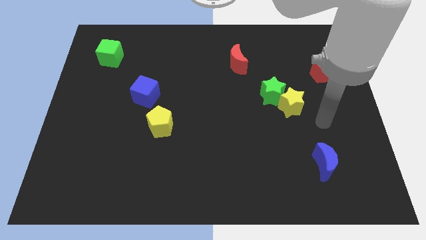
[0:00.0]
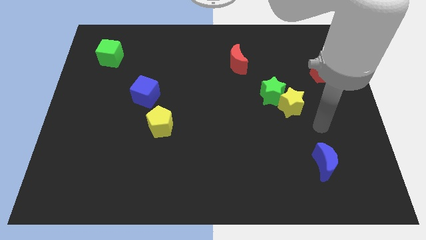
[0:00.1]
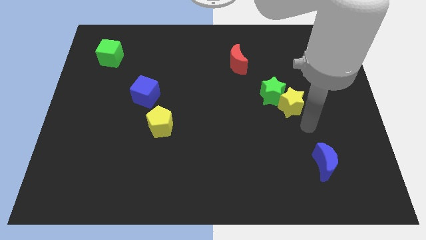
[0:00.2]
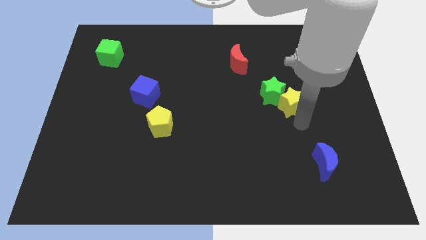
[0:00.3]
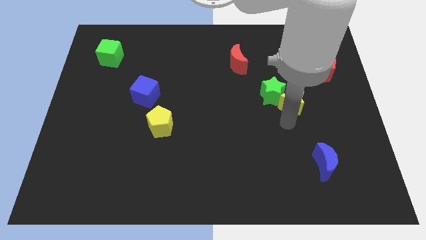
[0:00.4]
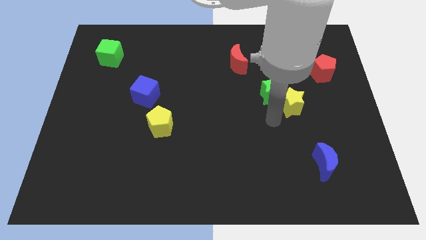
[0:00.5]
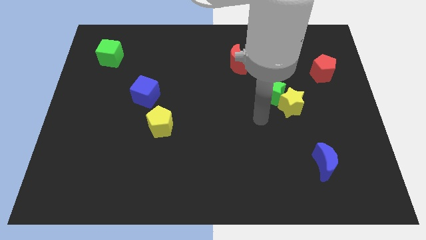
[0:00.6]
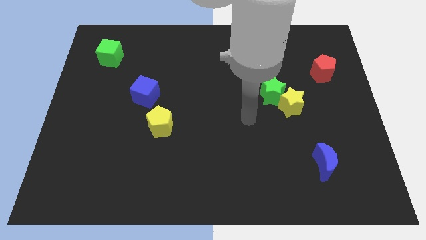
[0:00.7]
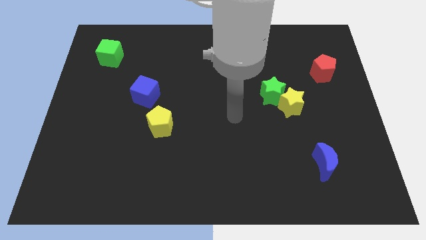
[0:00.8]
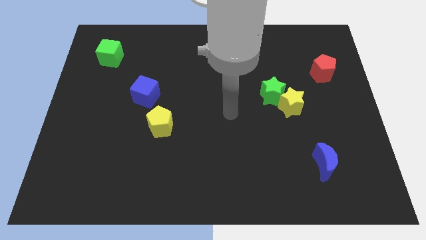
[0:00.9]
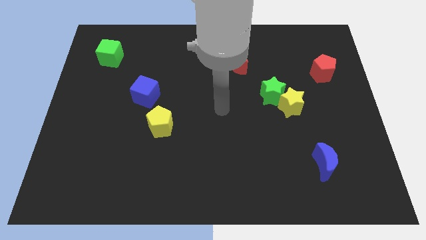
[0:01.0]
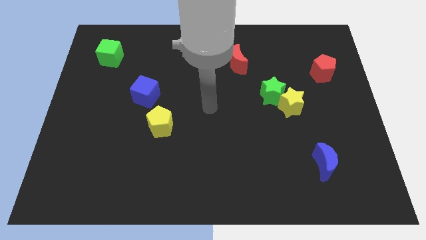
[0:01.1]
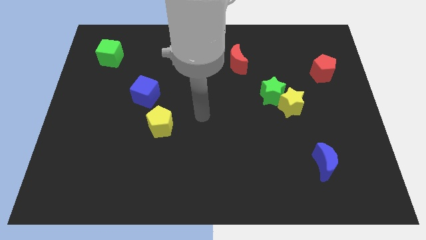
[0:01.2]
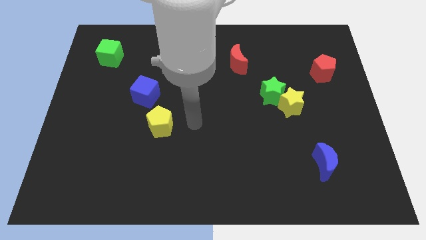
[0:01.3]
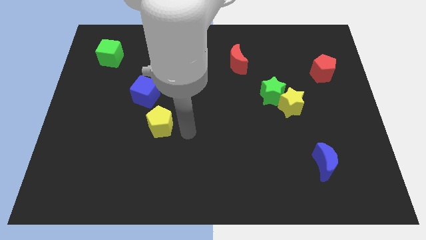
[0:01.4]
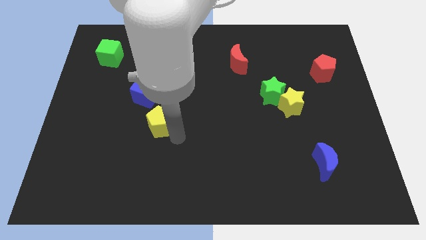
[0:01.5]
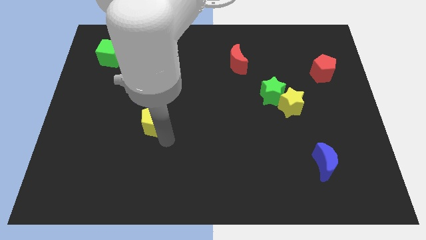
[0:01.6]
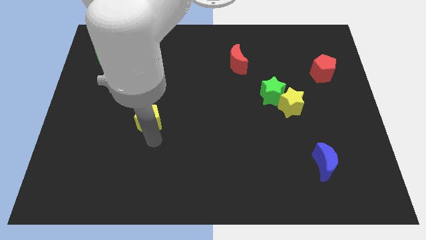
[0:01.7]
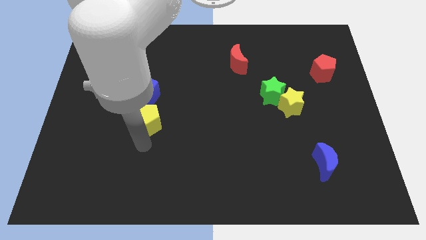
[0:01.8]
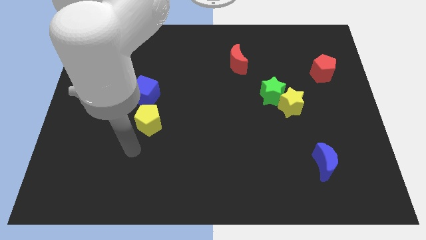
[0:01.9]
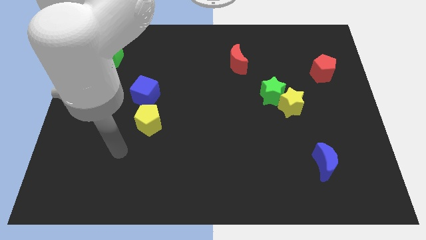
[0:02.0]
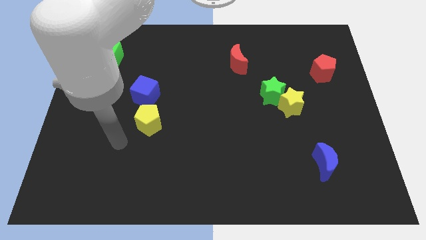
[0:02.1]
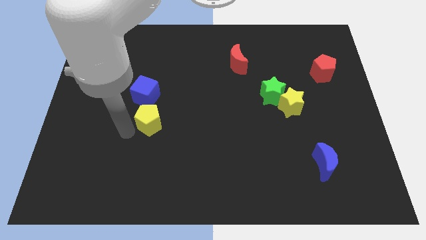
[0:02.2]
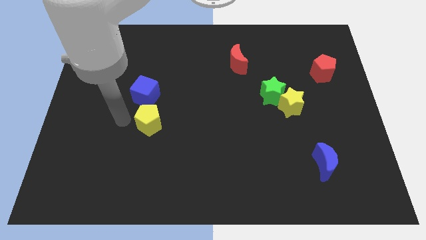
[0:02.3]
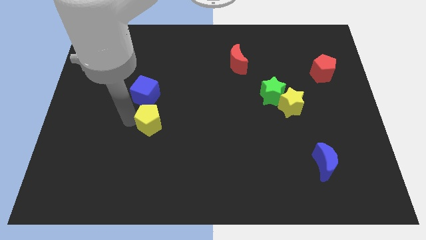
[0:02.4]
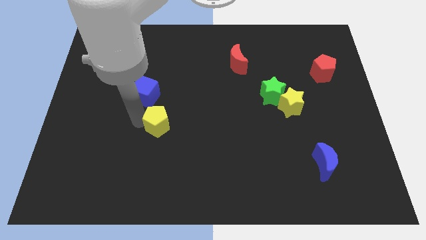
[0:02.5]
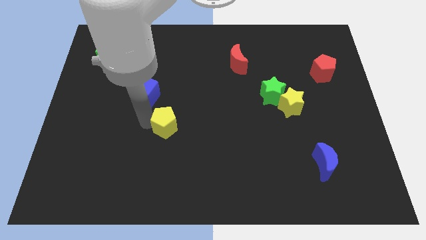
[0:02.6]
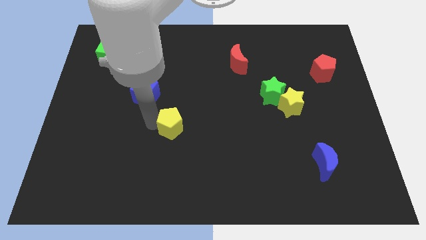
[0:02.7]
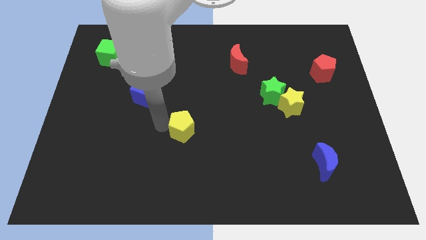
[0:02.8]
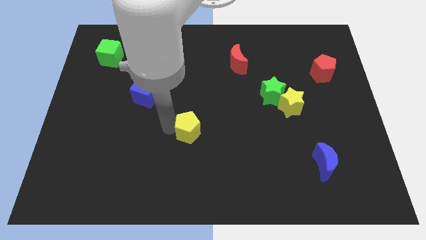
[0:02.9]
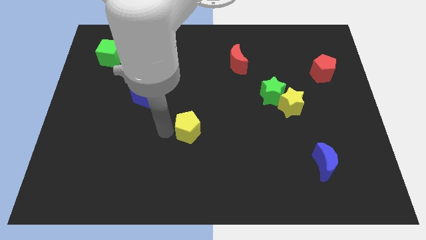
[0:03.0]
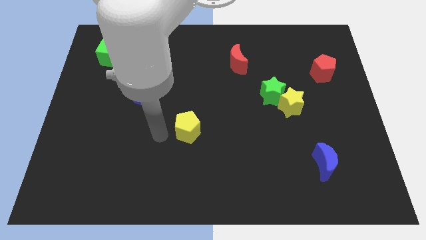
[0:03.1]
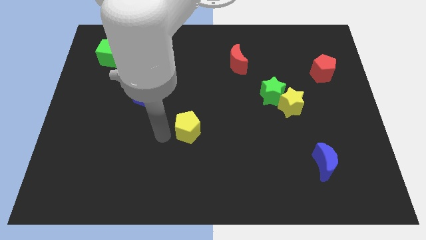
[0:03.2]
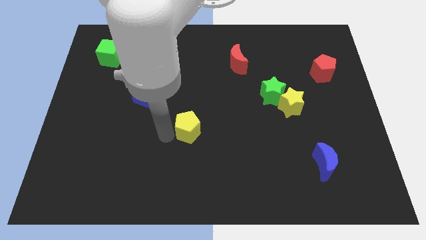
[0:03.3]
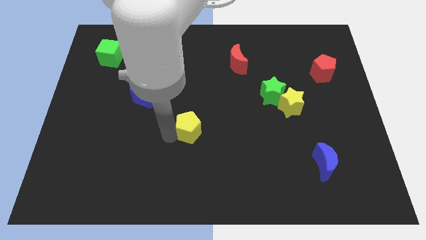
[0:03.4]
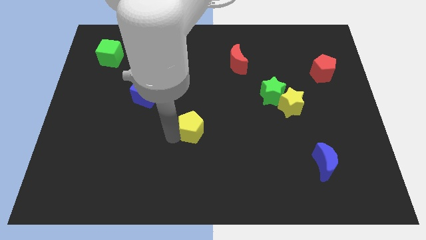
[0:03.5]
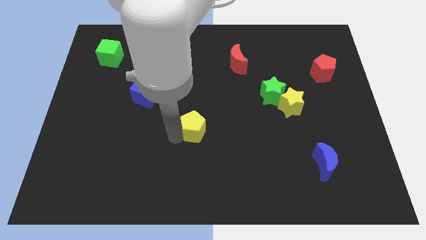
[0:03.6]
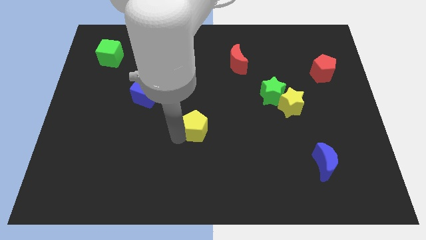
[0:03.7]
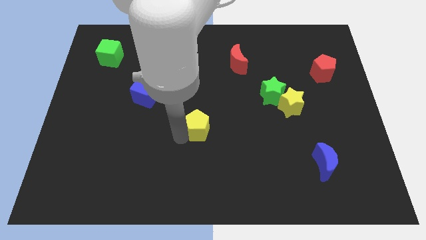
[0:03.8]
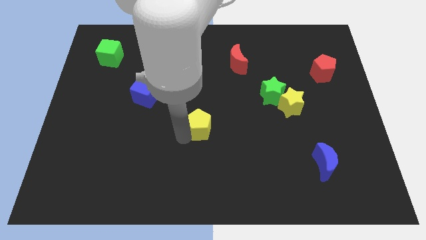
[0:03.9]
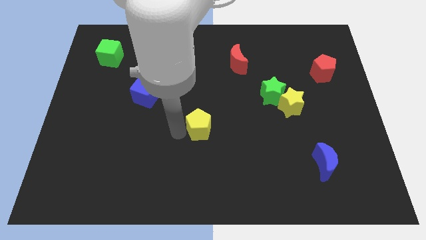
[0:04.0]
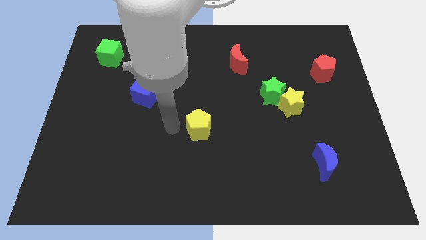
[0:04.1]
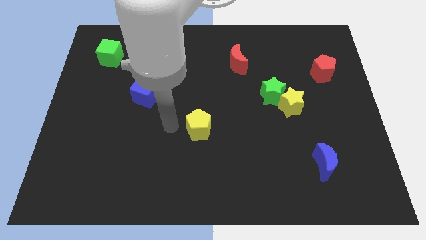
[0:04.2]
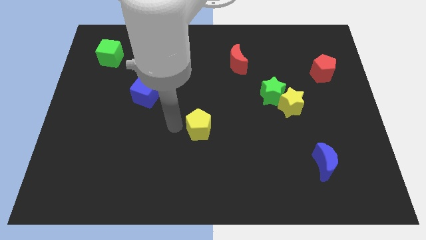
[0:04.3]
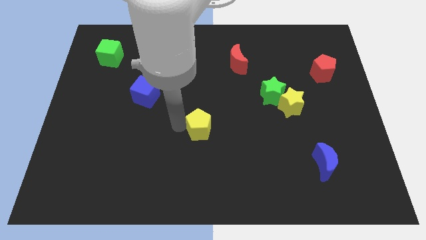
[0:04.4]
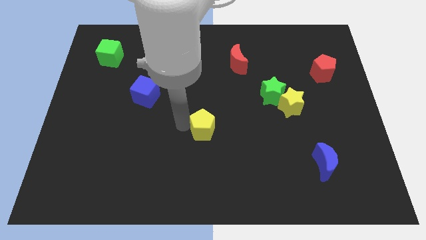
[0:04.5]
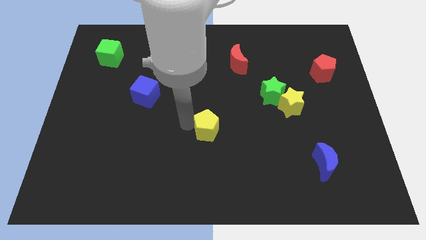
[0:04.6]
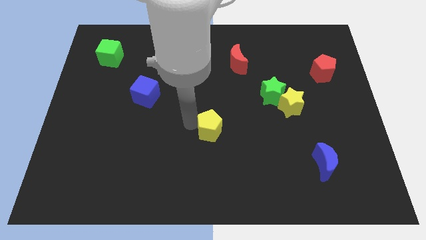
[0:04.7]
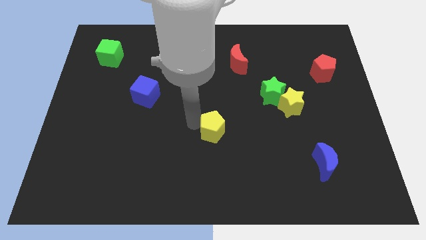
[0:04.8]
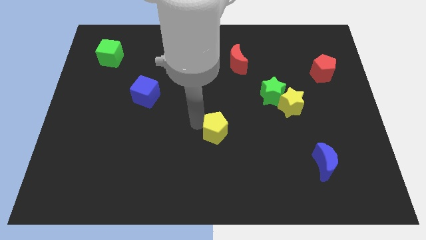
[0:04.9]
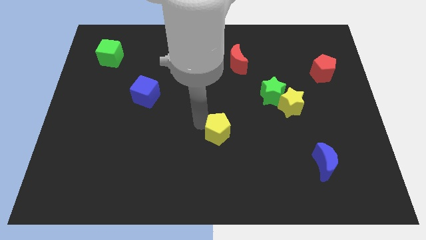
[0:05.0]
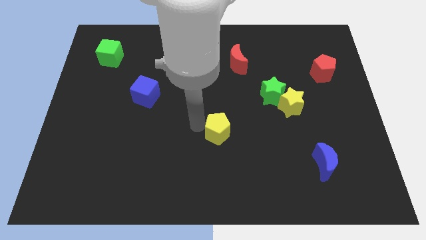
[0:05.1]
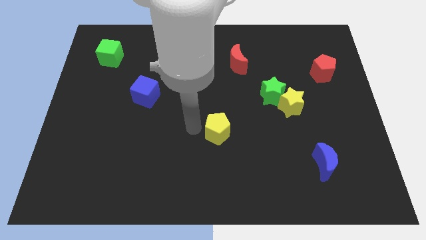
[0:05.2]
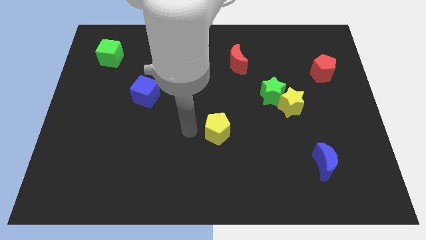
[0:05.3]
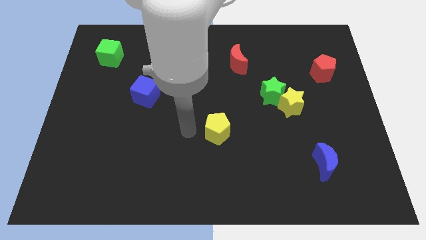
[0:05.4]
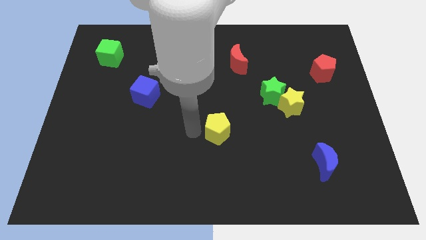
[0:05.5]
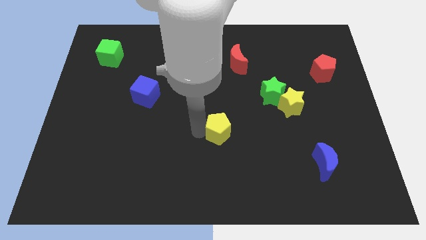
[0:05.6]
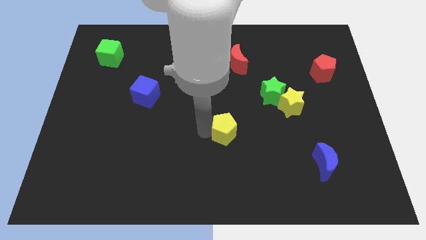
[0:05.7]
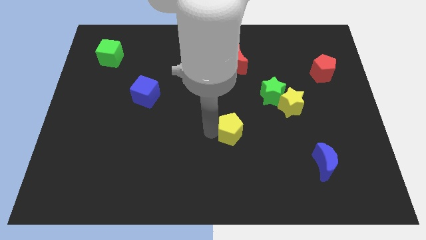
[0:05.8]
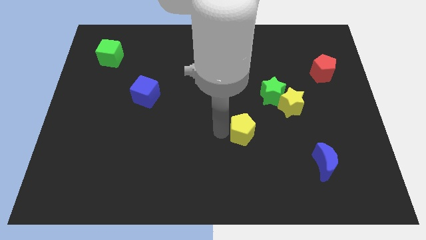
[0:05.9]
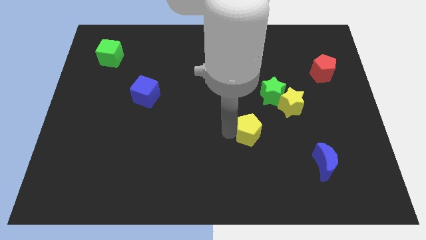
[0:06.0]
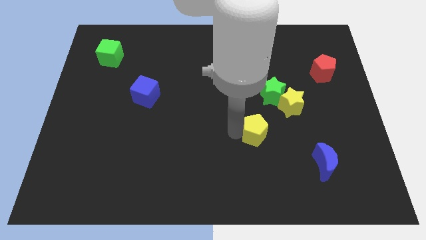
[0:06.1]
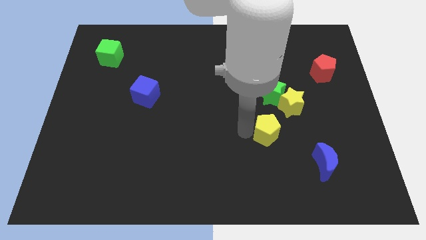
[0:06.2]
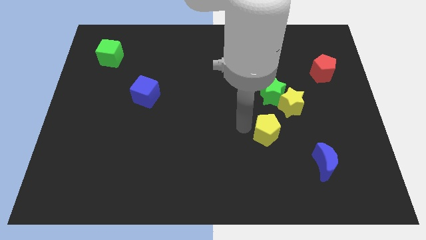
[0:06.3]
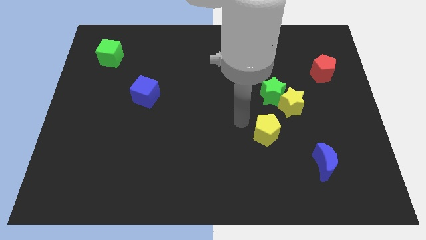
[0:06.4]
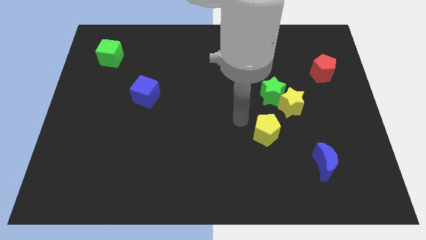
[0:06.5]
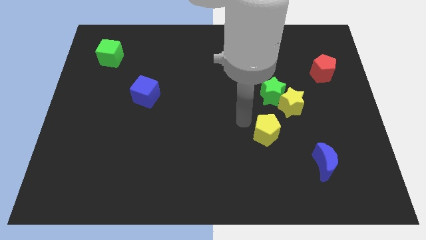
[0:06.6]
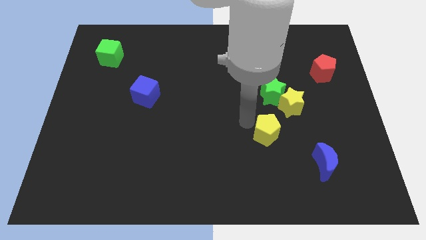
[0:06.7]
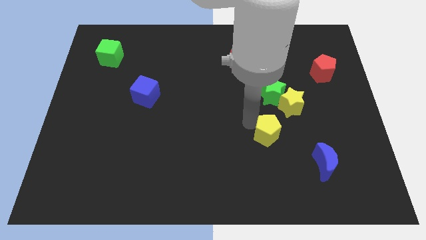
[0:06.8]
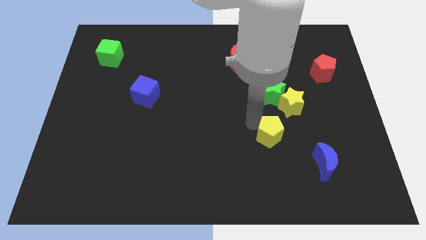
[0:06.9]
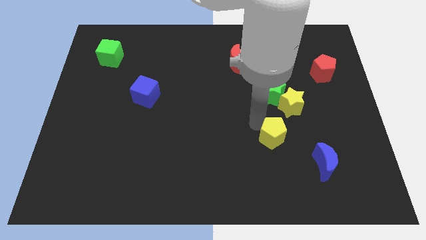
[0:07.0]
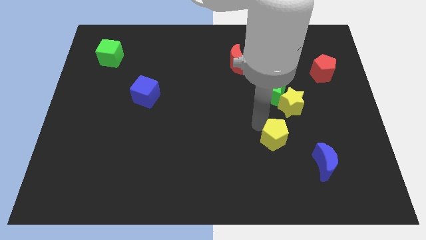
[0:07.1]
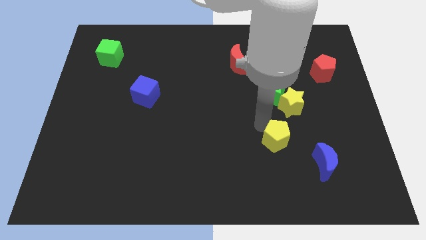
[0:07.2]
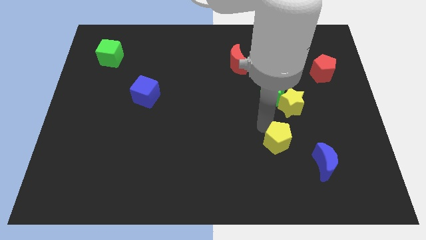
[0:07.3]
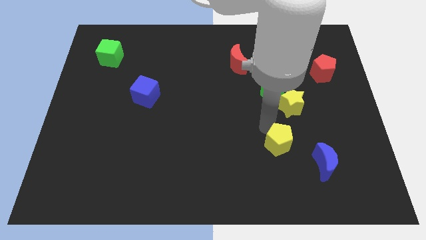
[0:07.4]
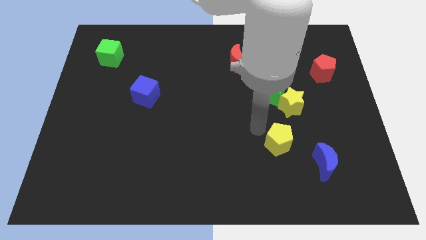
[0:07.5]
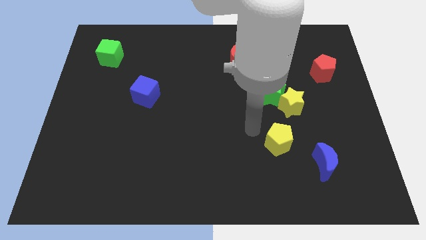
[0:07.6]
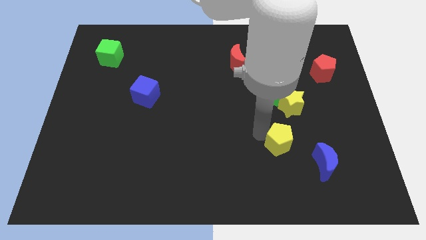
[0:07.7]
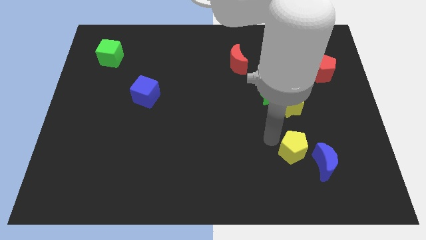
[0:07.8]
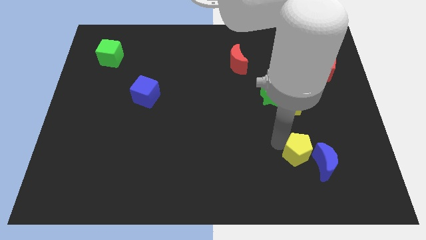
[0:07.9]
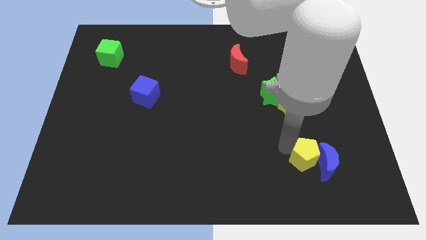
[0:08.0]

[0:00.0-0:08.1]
push the yellow pentagon next to the blue moon
